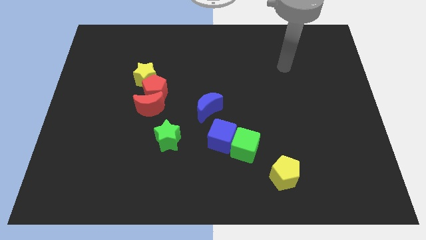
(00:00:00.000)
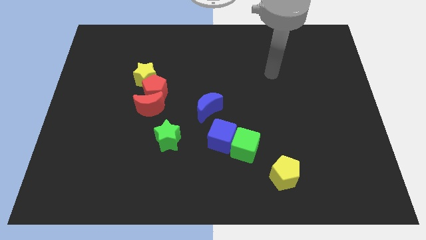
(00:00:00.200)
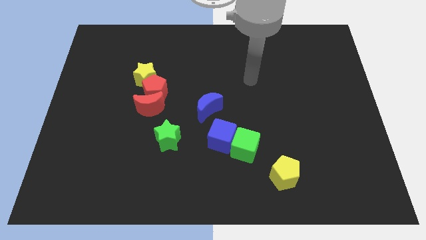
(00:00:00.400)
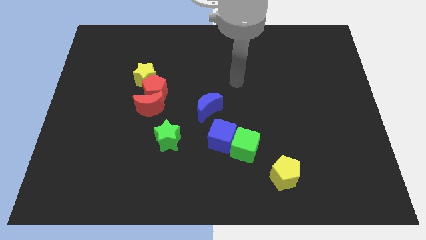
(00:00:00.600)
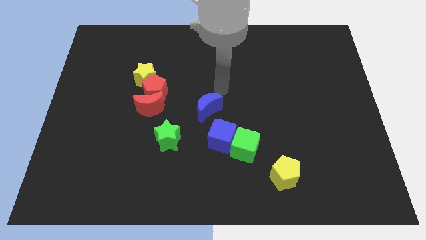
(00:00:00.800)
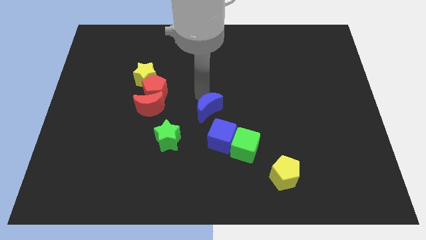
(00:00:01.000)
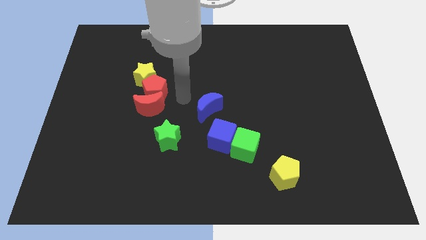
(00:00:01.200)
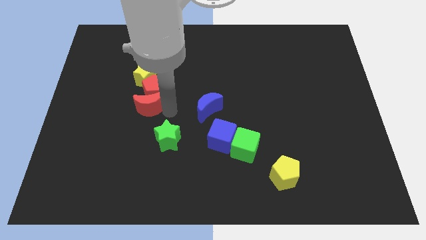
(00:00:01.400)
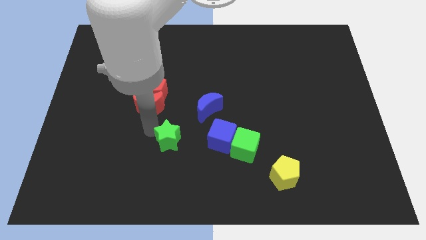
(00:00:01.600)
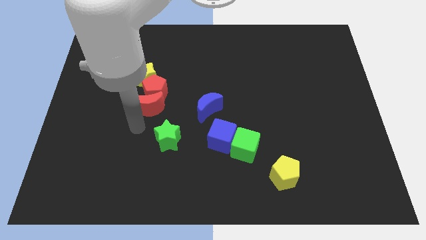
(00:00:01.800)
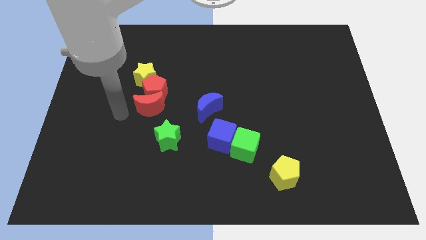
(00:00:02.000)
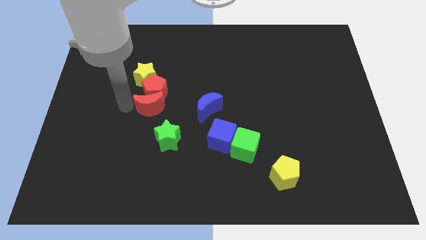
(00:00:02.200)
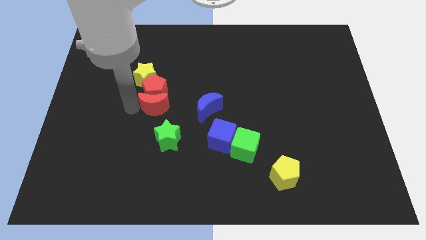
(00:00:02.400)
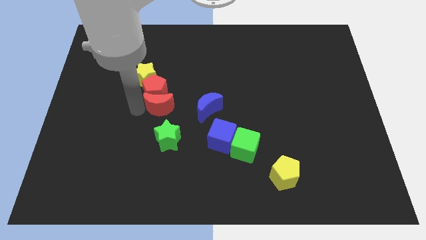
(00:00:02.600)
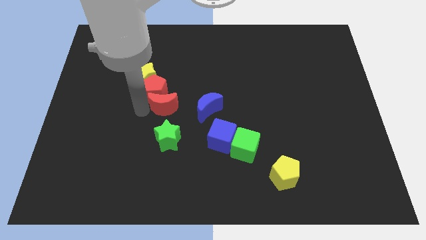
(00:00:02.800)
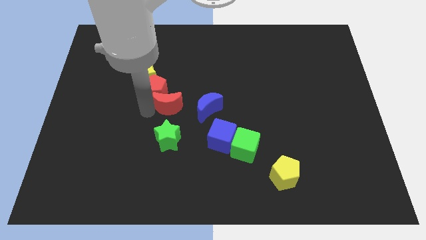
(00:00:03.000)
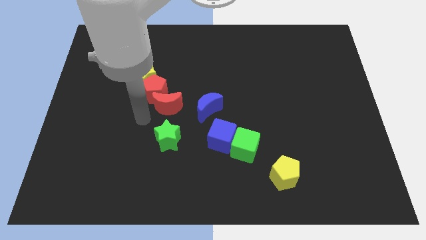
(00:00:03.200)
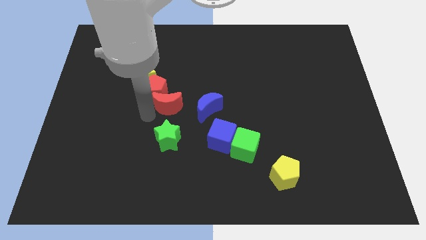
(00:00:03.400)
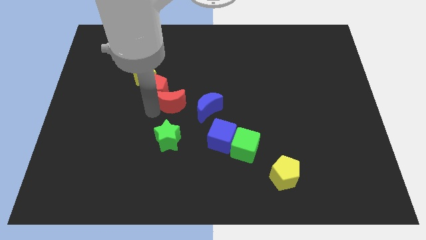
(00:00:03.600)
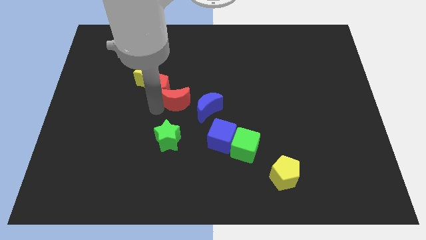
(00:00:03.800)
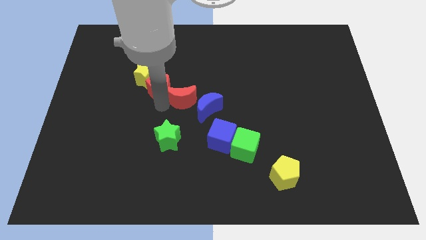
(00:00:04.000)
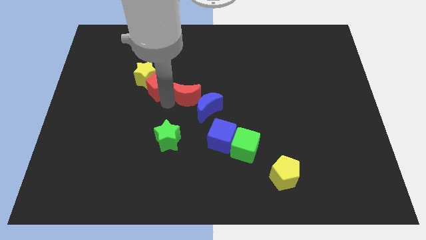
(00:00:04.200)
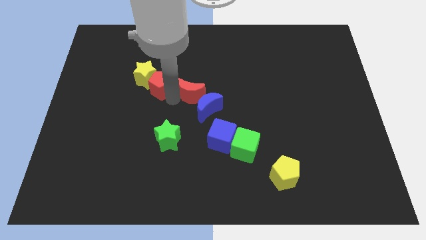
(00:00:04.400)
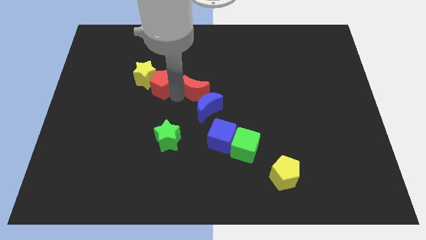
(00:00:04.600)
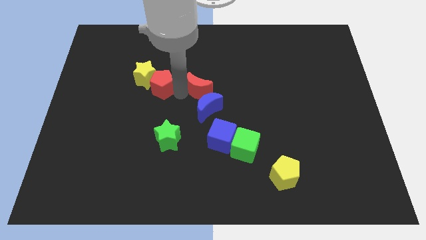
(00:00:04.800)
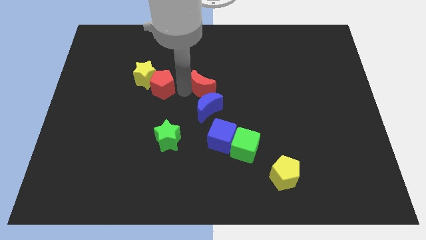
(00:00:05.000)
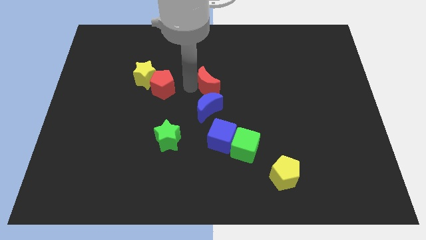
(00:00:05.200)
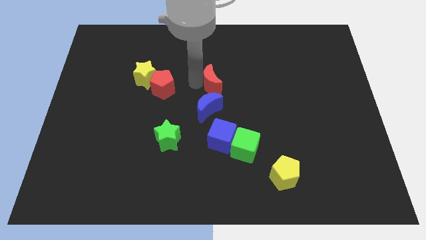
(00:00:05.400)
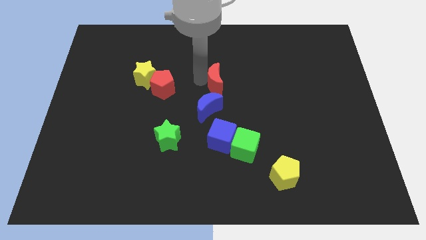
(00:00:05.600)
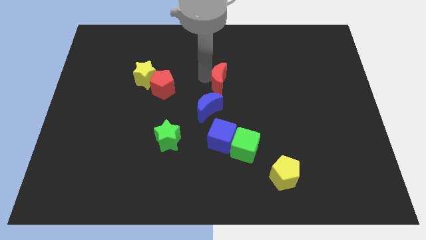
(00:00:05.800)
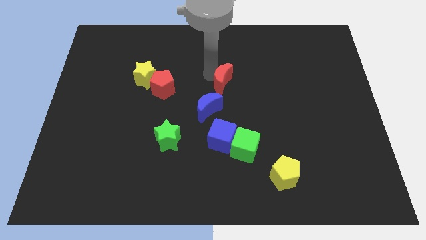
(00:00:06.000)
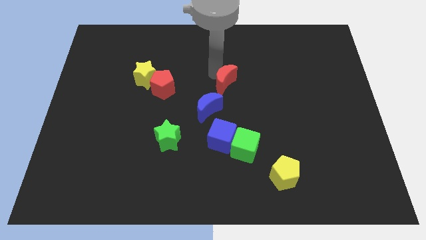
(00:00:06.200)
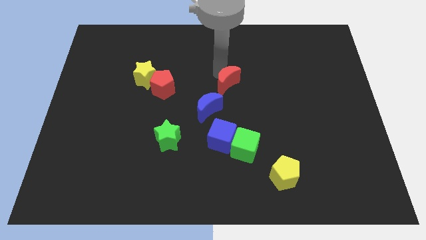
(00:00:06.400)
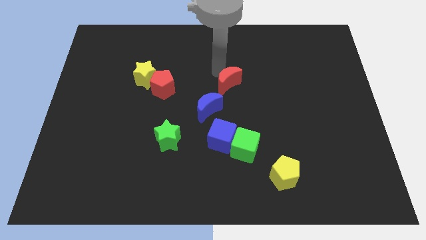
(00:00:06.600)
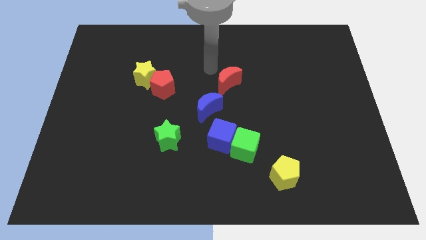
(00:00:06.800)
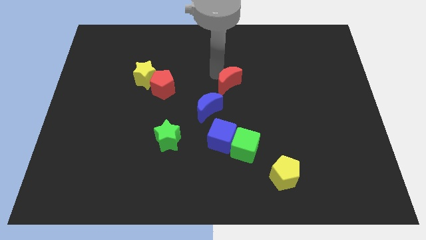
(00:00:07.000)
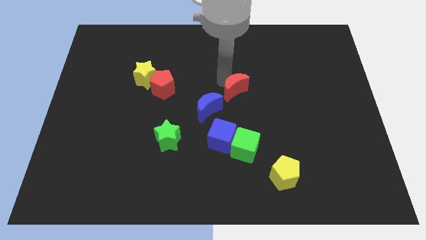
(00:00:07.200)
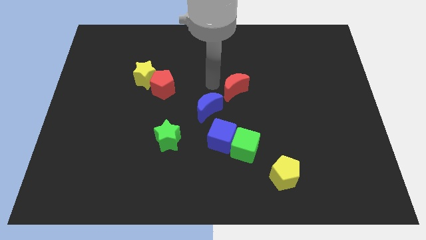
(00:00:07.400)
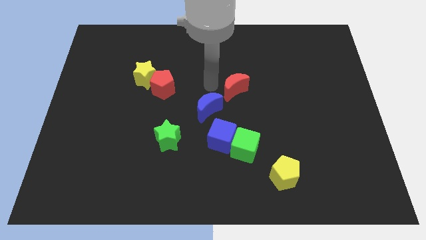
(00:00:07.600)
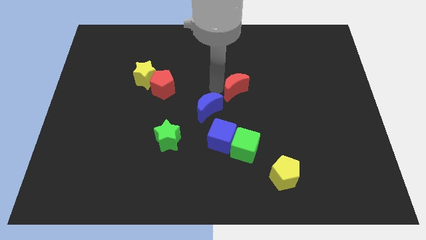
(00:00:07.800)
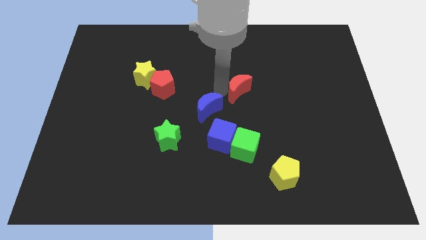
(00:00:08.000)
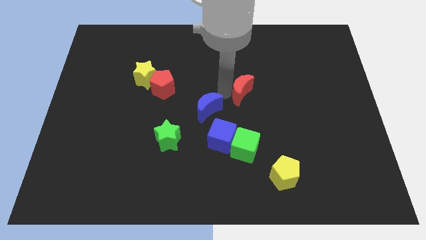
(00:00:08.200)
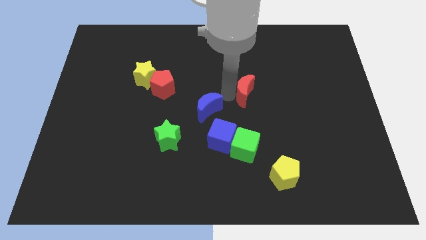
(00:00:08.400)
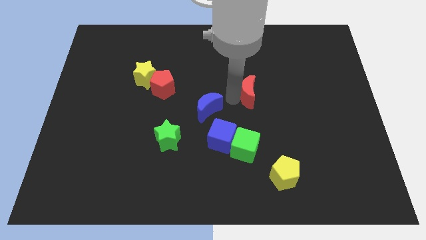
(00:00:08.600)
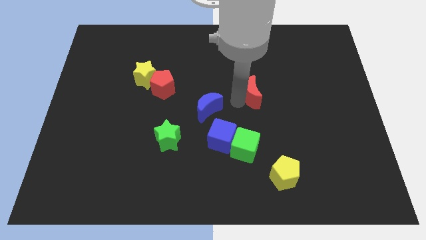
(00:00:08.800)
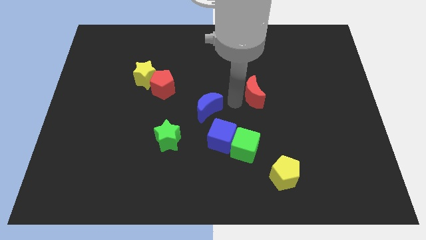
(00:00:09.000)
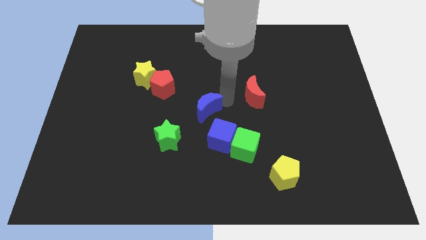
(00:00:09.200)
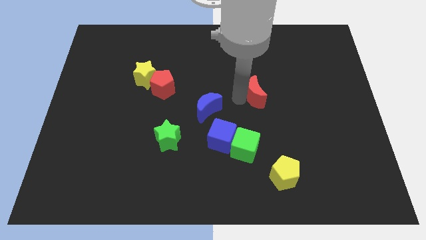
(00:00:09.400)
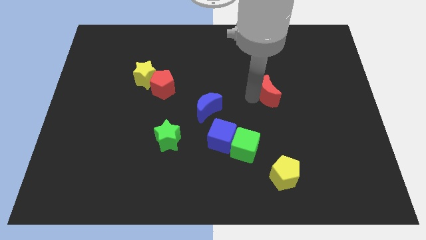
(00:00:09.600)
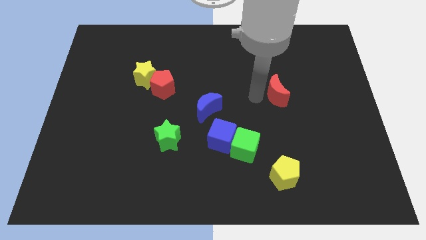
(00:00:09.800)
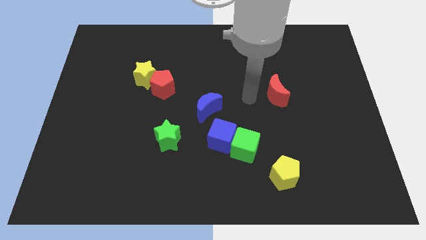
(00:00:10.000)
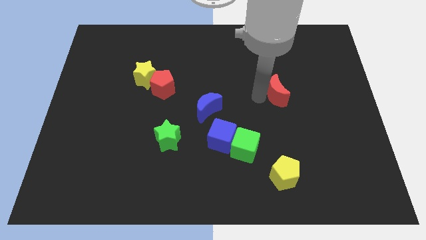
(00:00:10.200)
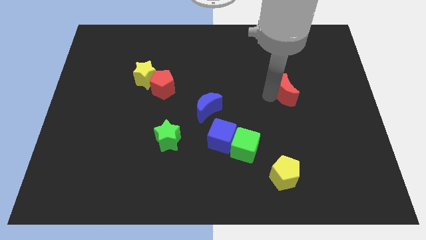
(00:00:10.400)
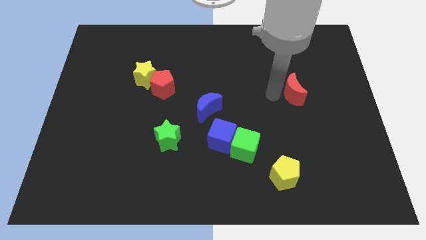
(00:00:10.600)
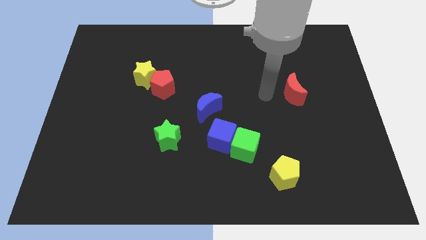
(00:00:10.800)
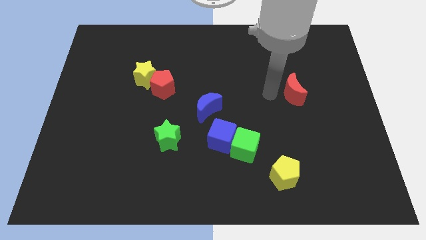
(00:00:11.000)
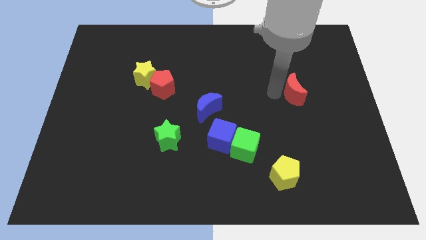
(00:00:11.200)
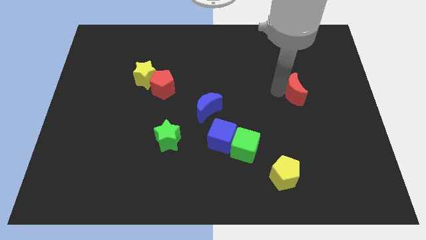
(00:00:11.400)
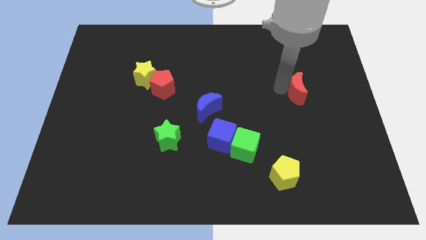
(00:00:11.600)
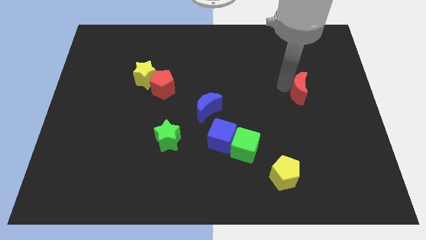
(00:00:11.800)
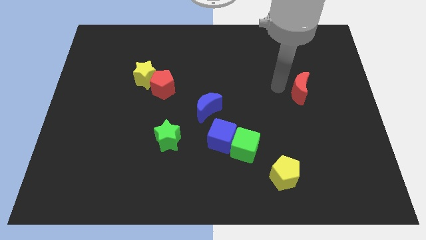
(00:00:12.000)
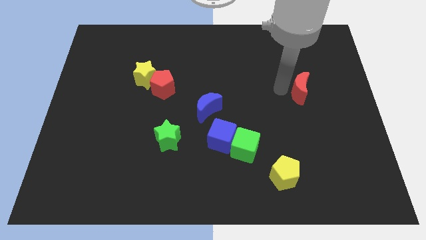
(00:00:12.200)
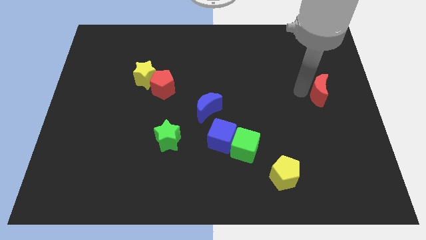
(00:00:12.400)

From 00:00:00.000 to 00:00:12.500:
put the red moon to the right side of the board
